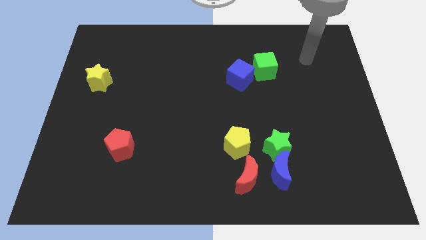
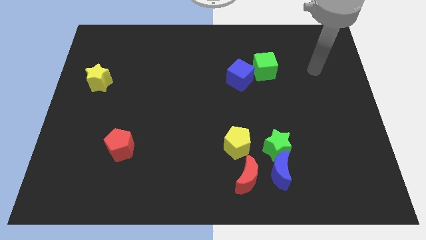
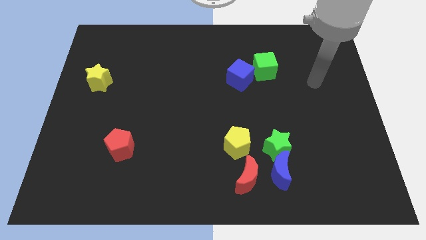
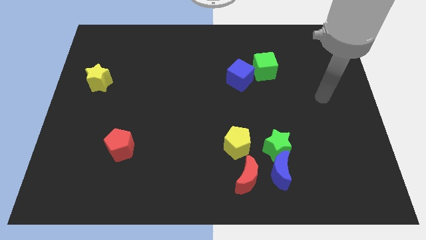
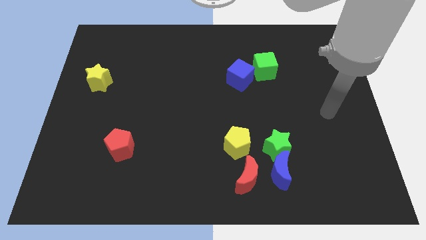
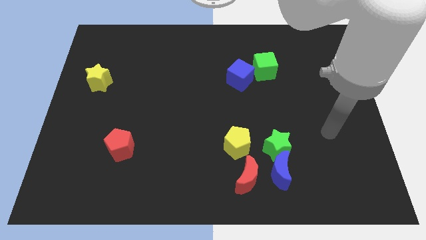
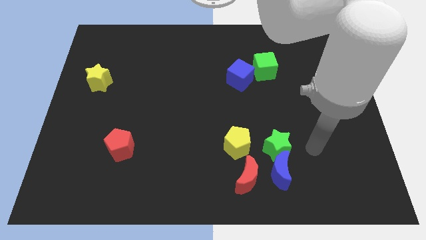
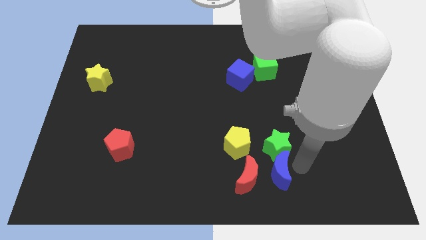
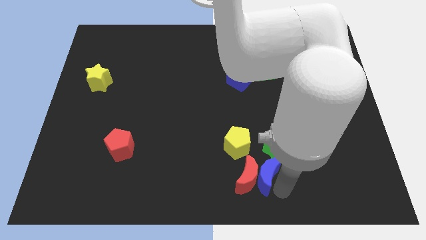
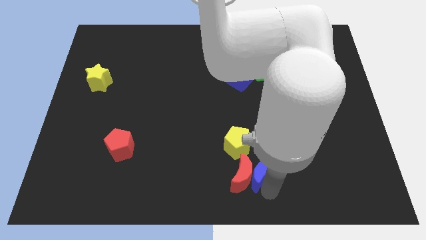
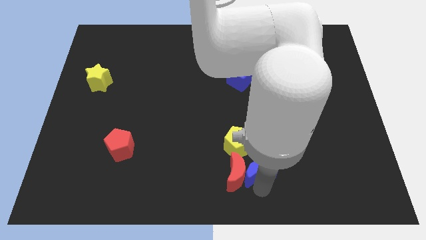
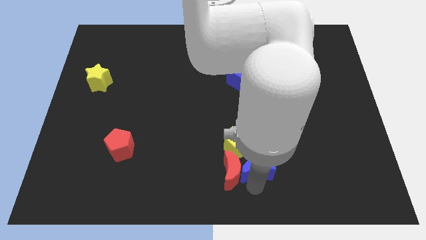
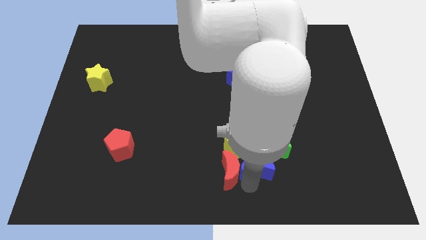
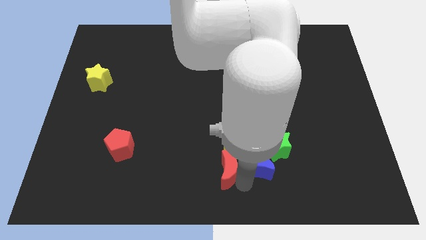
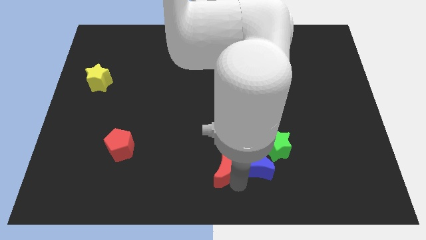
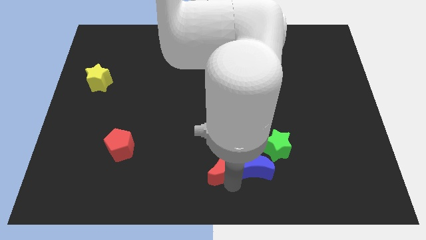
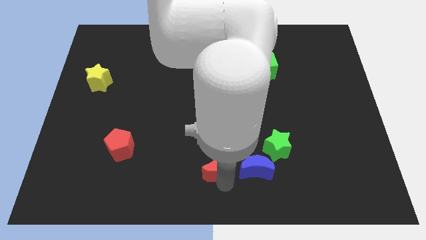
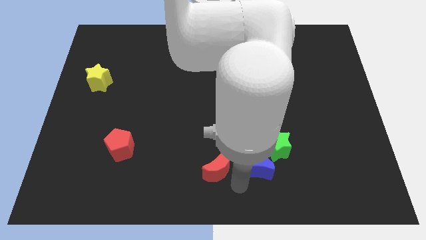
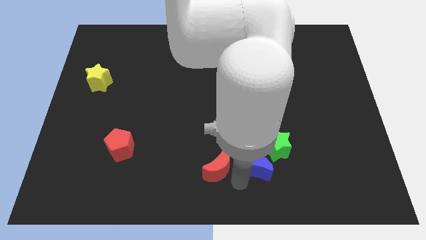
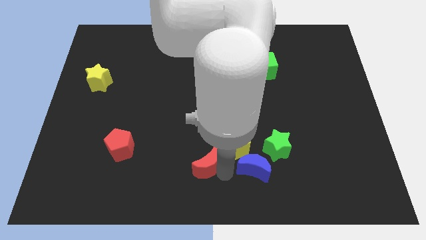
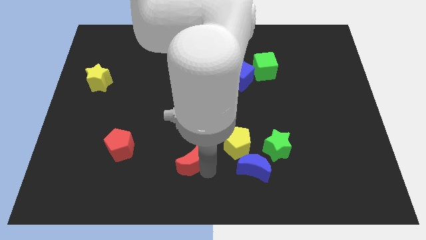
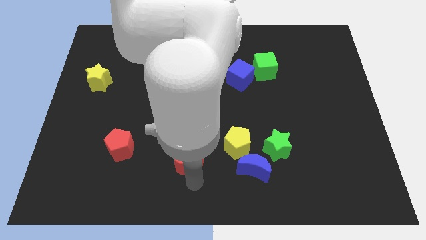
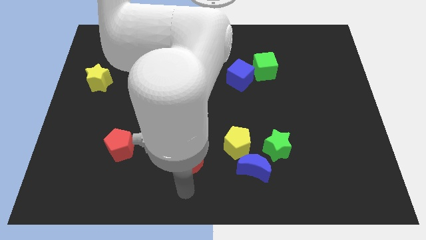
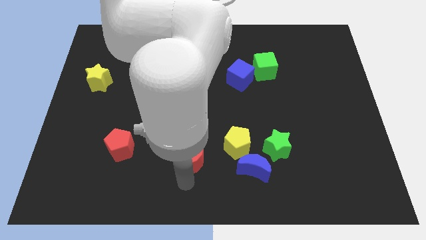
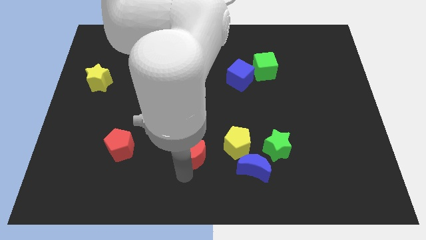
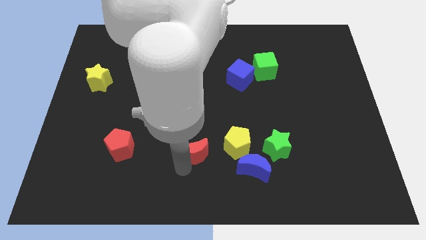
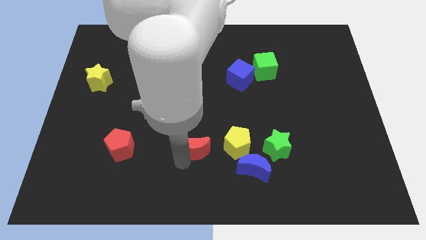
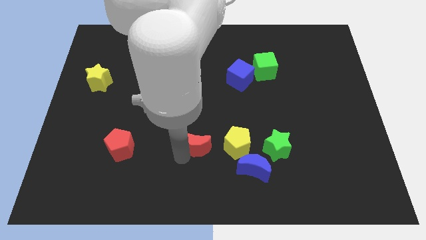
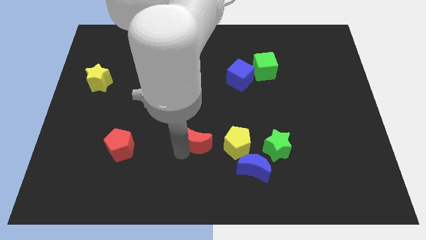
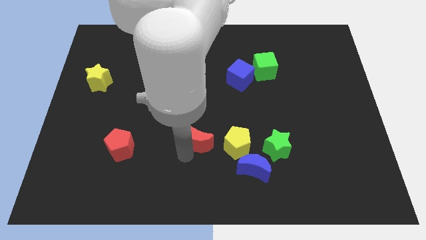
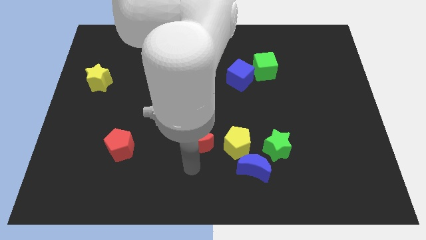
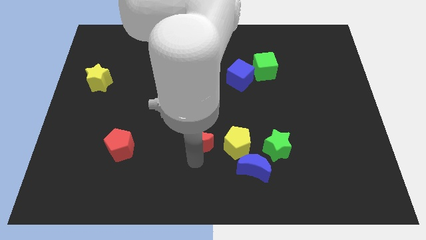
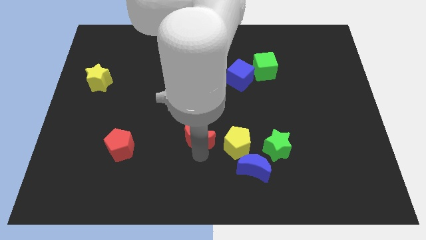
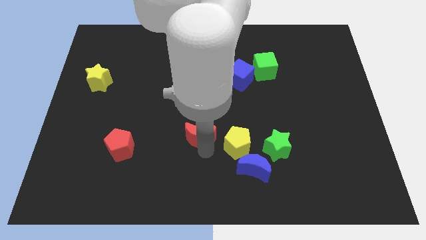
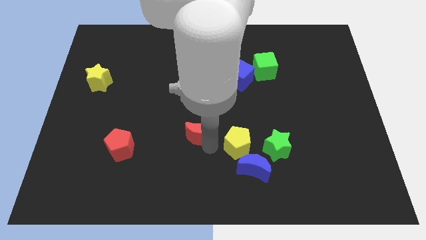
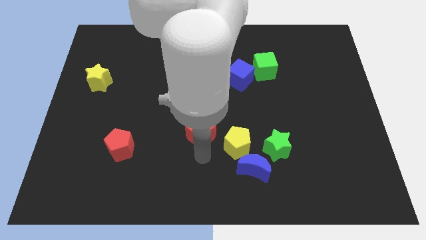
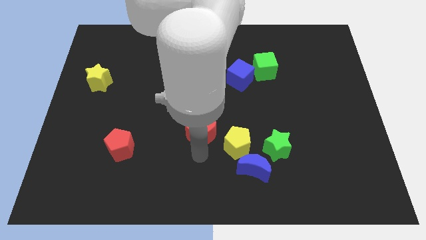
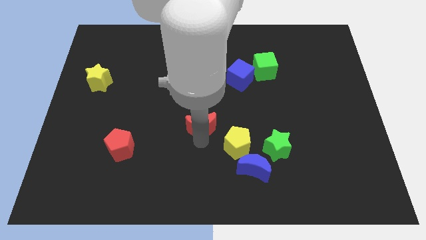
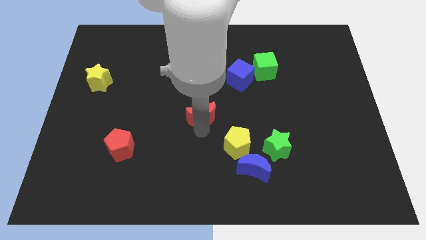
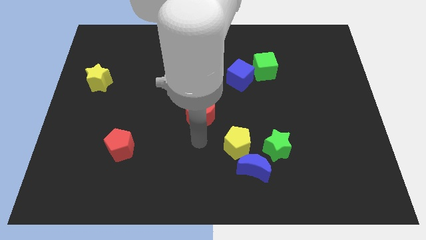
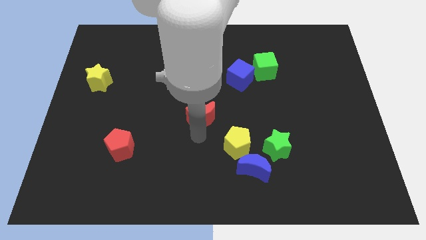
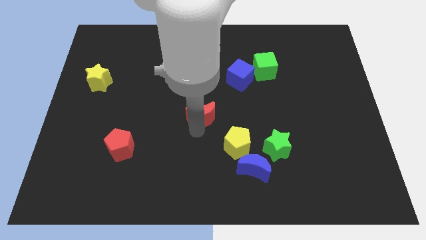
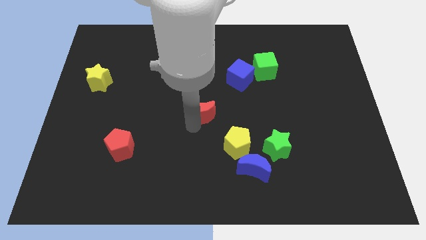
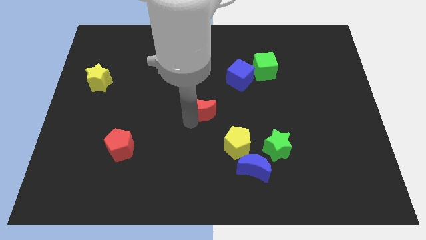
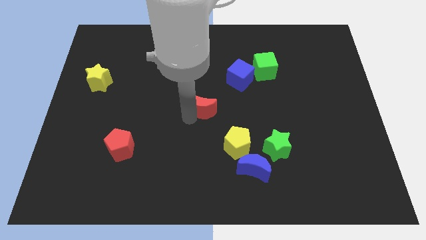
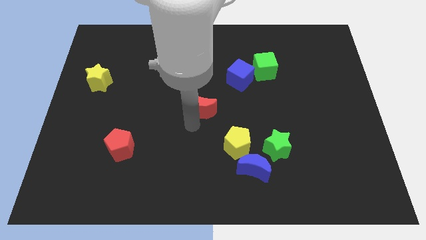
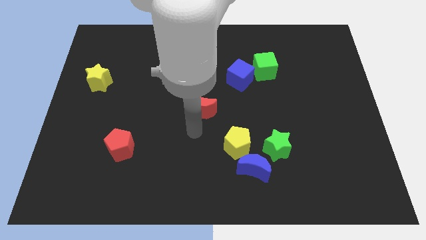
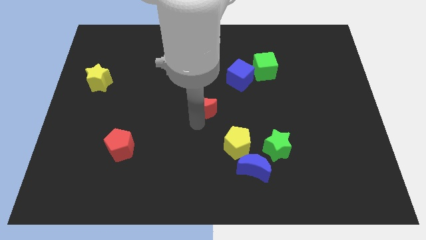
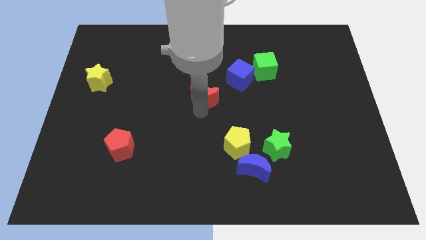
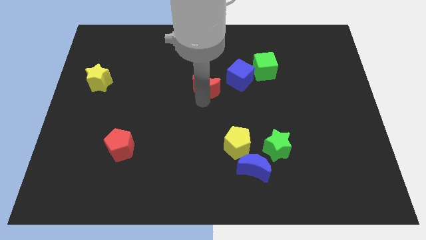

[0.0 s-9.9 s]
slide the red moon upwards

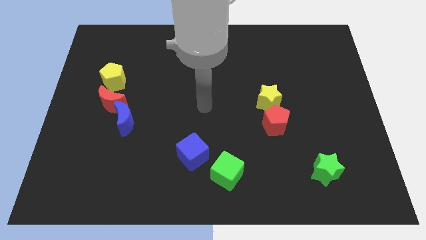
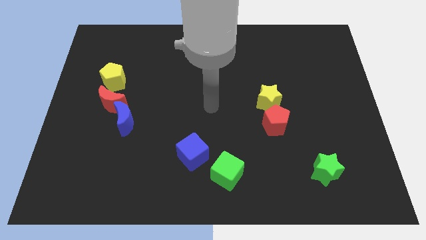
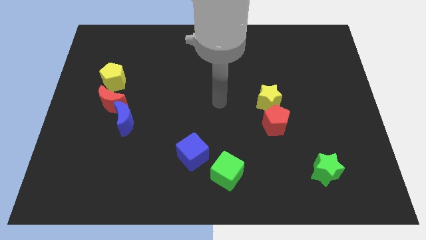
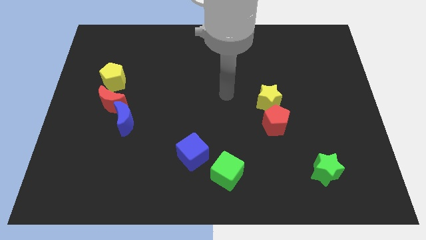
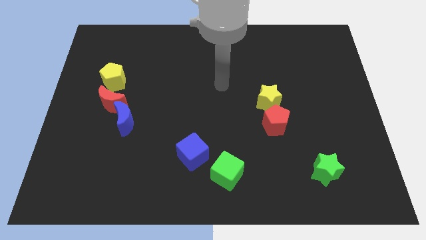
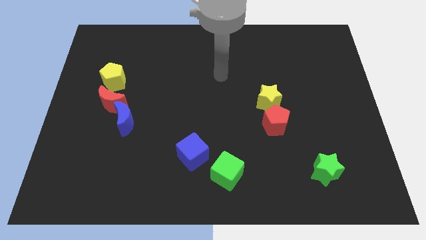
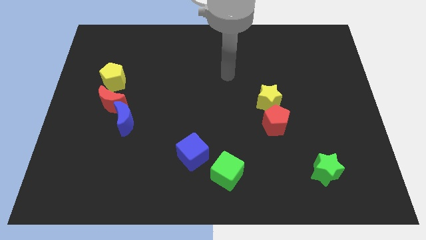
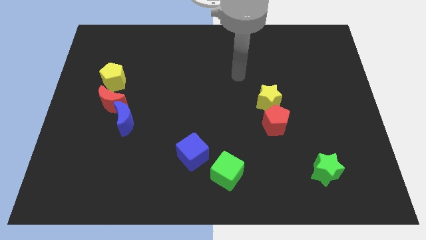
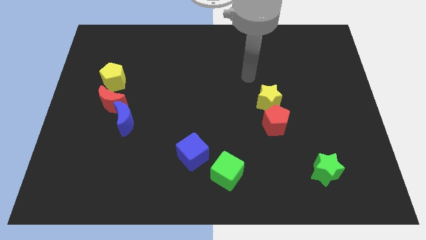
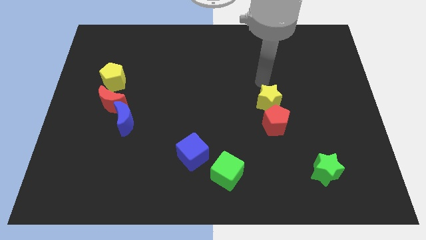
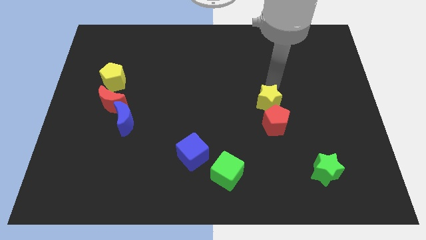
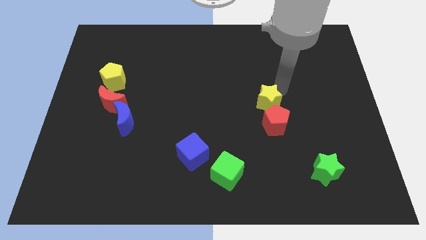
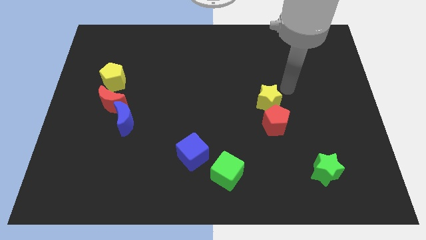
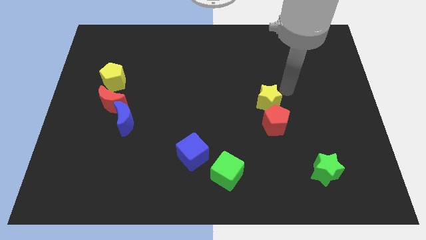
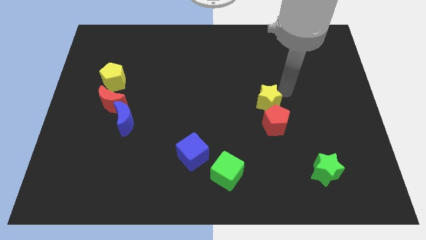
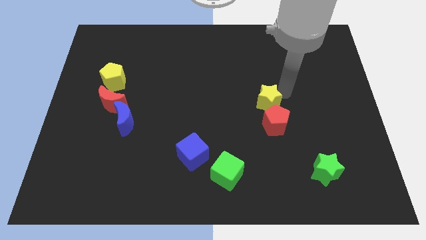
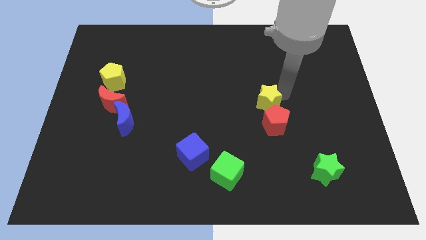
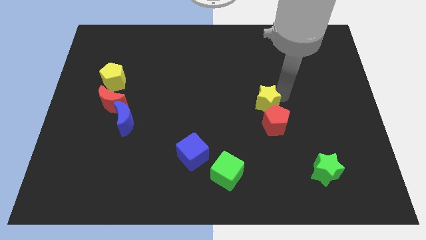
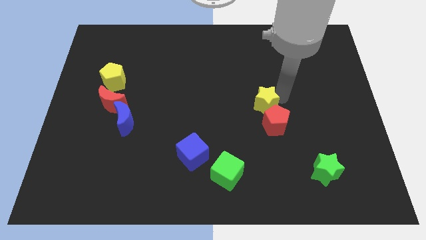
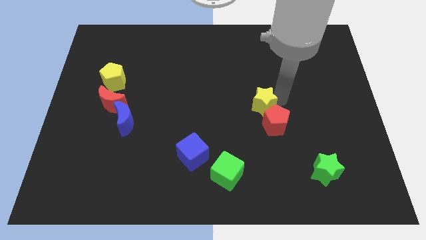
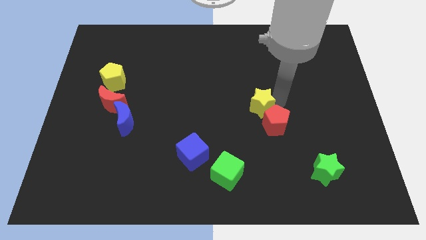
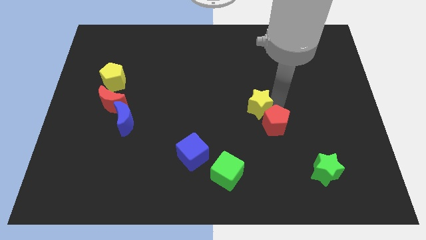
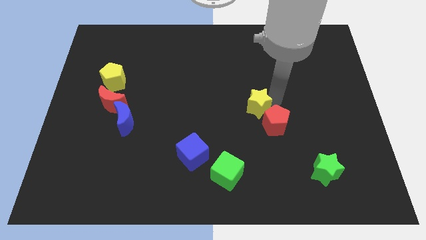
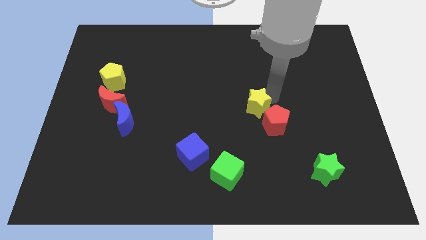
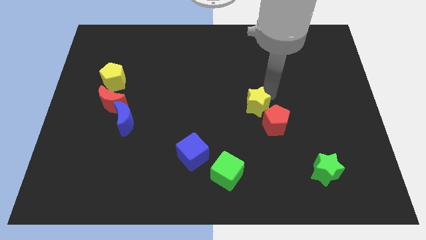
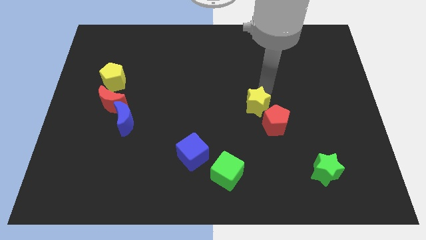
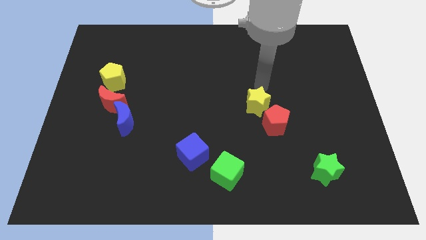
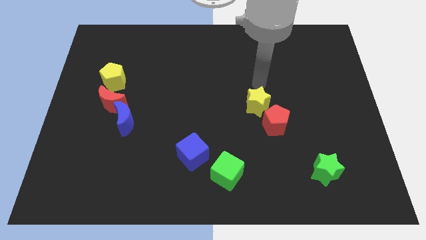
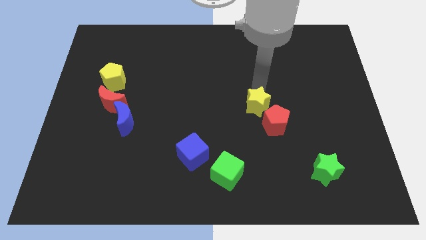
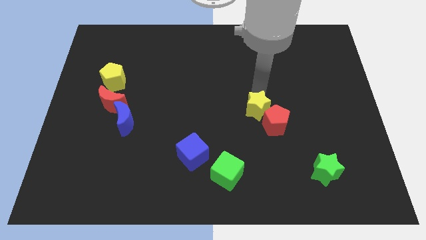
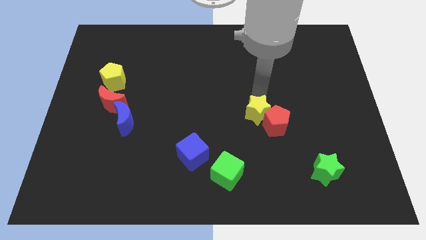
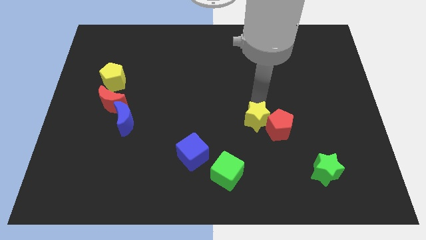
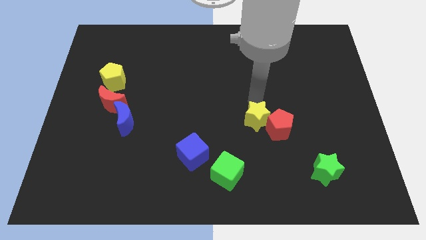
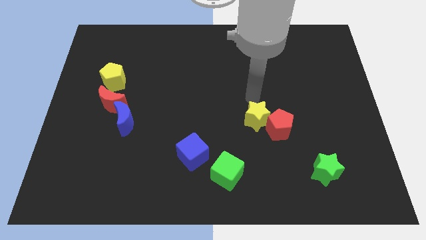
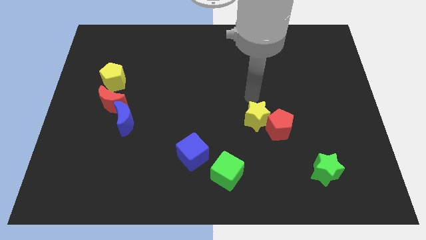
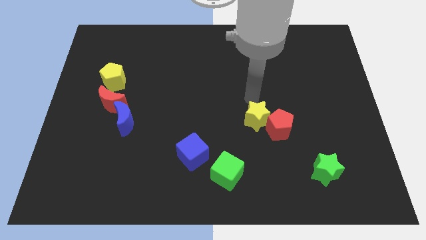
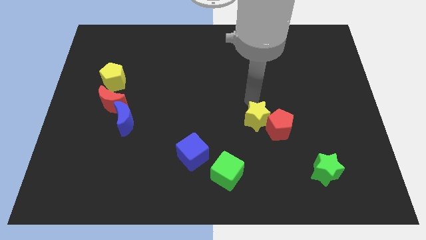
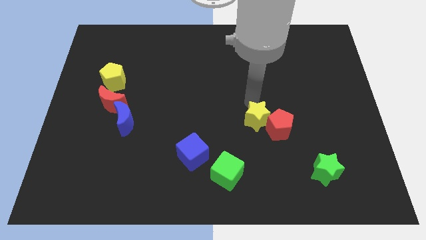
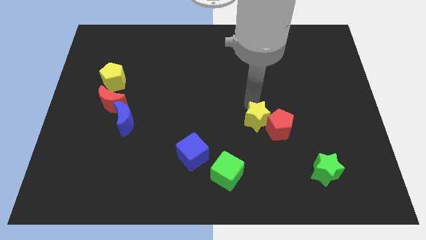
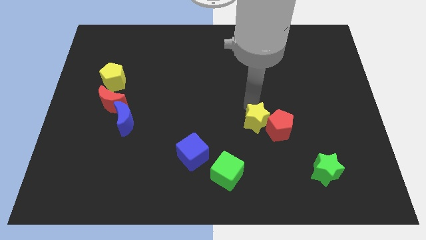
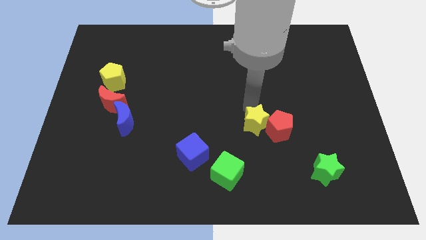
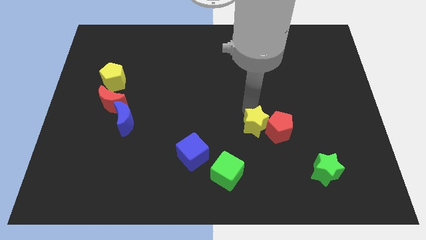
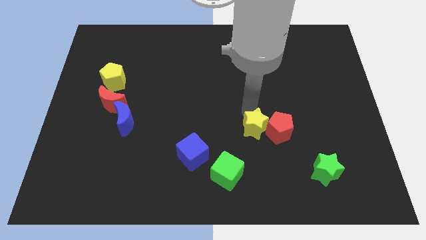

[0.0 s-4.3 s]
slide the yellow star a little down
